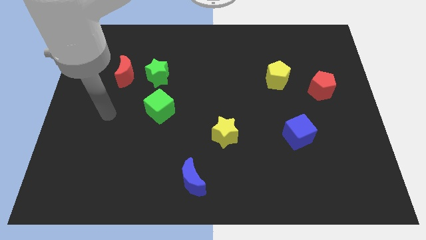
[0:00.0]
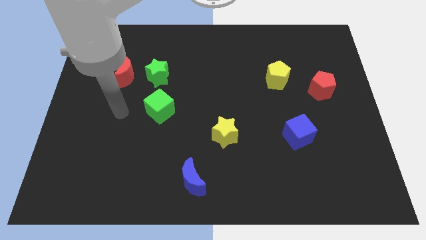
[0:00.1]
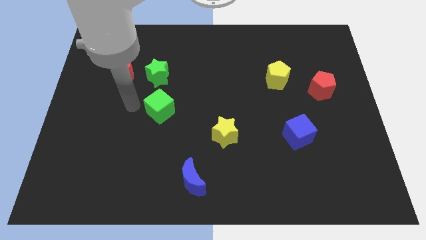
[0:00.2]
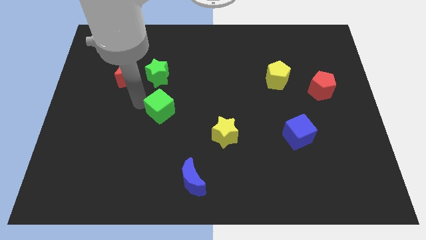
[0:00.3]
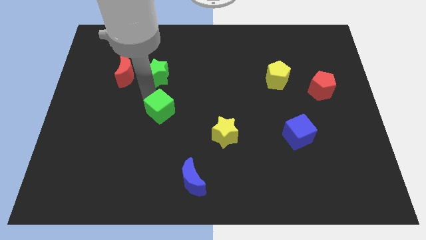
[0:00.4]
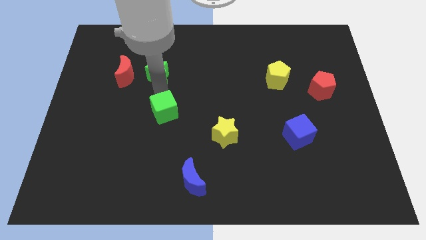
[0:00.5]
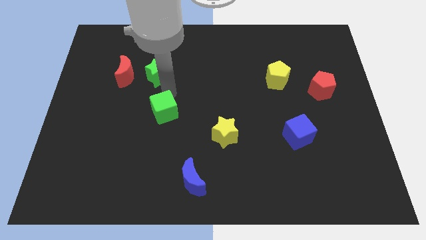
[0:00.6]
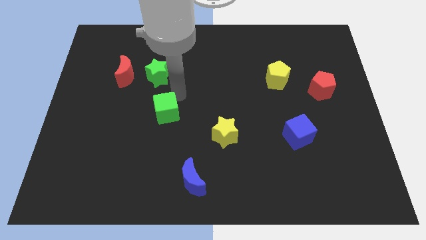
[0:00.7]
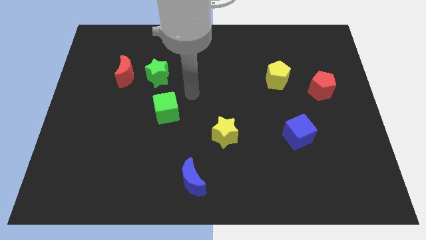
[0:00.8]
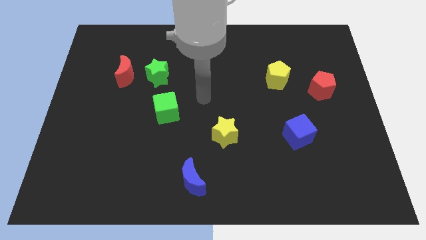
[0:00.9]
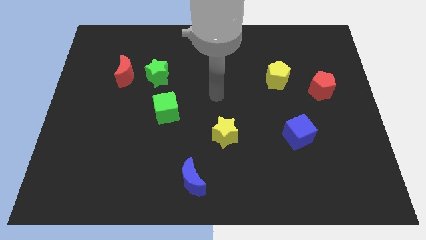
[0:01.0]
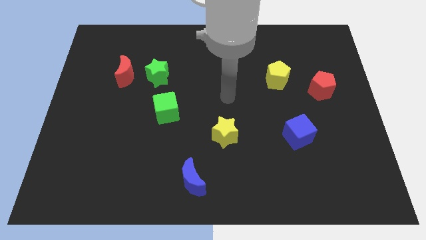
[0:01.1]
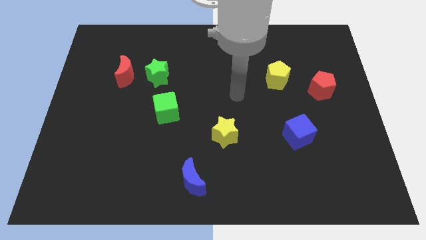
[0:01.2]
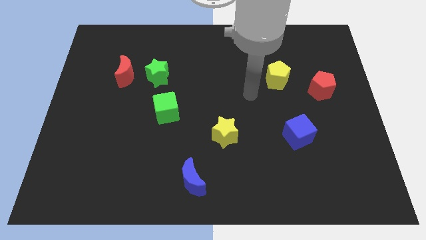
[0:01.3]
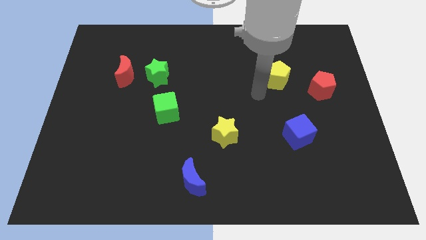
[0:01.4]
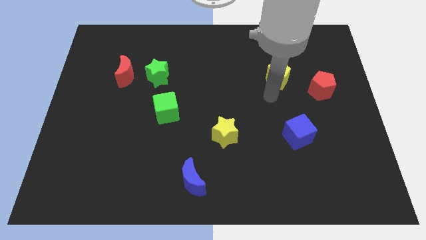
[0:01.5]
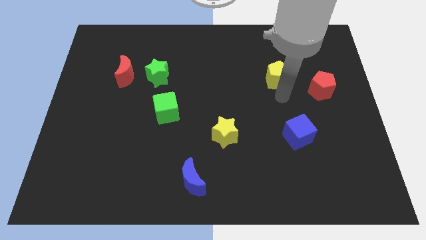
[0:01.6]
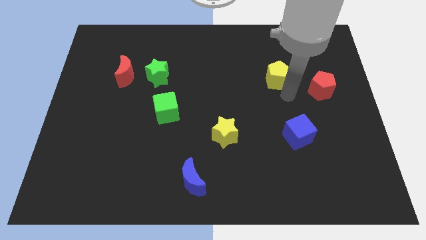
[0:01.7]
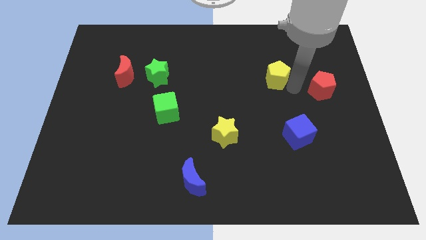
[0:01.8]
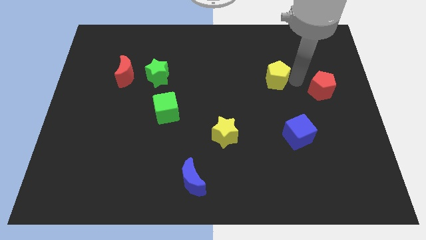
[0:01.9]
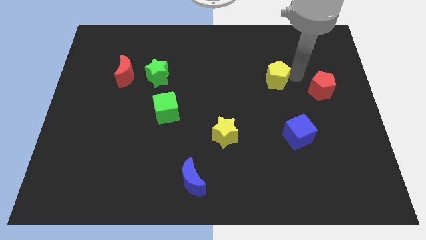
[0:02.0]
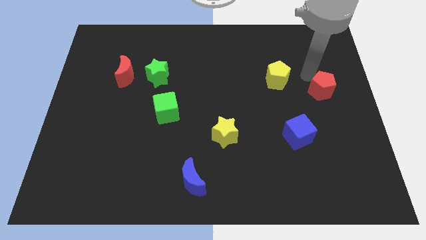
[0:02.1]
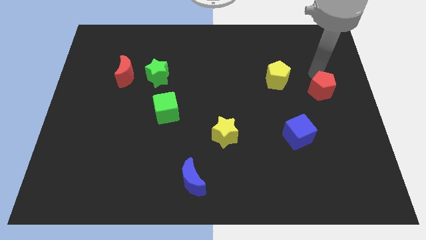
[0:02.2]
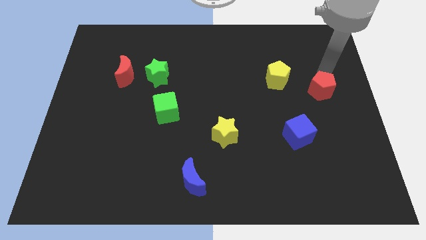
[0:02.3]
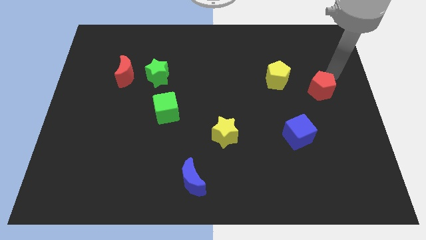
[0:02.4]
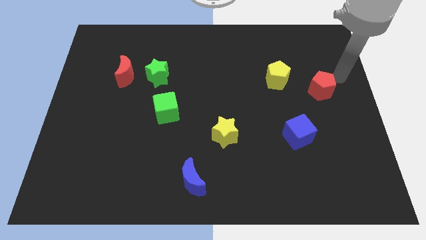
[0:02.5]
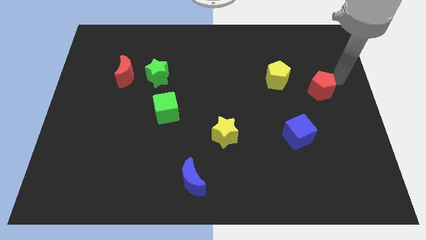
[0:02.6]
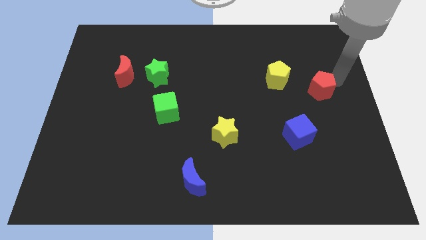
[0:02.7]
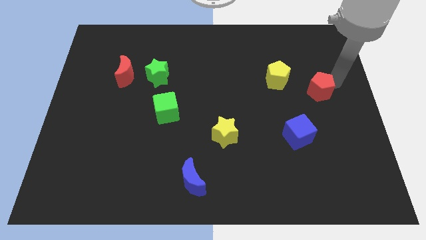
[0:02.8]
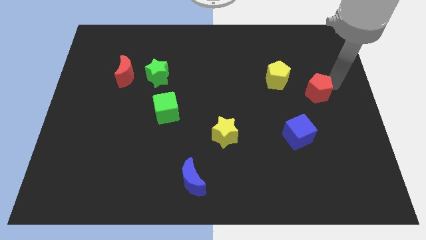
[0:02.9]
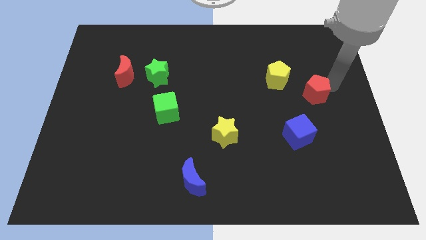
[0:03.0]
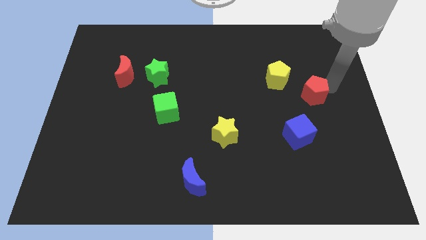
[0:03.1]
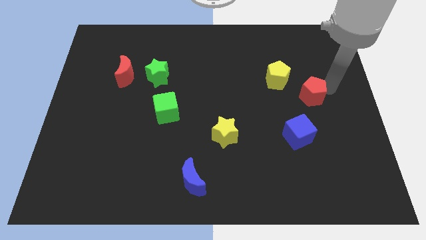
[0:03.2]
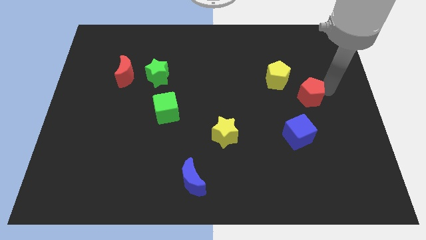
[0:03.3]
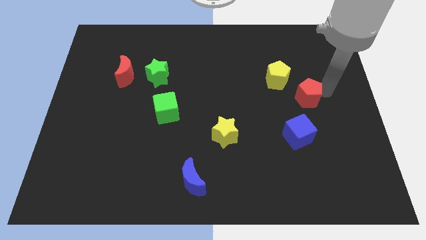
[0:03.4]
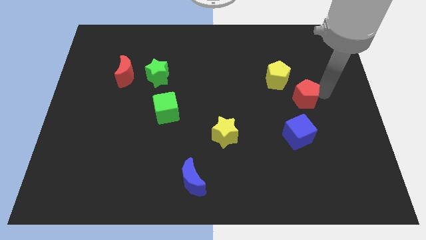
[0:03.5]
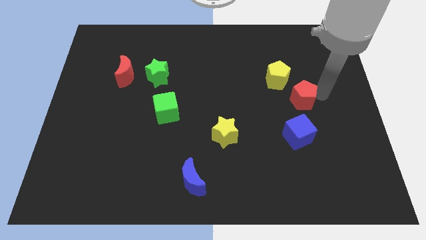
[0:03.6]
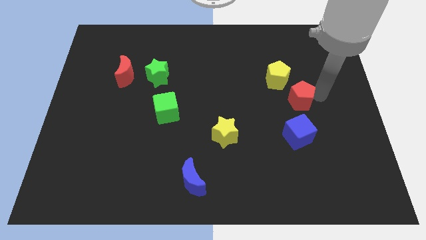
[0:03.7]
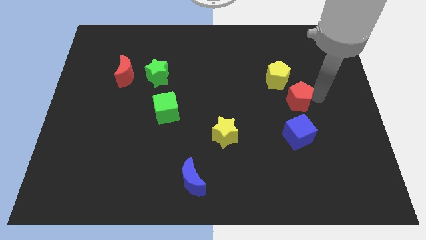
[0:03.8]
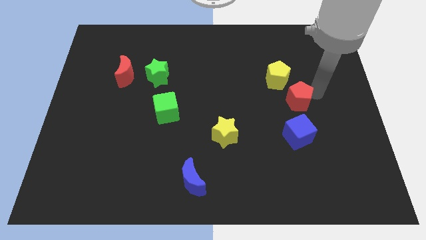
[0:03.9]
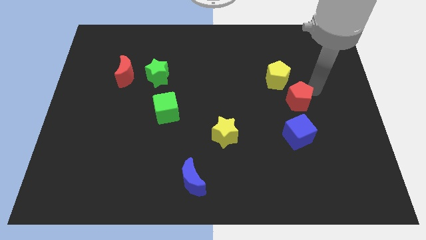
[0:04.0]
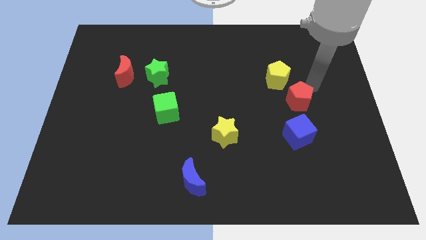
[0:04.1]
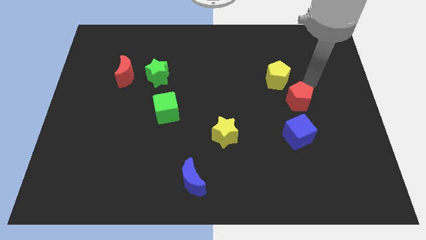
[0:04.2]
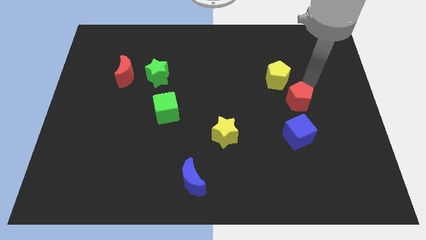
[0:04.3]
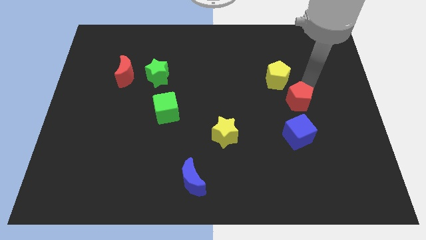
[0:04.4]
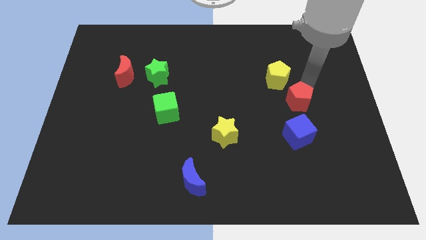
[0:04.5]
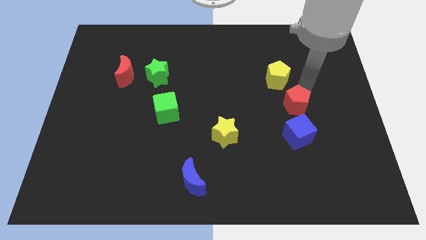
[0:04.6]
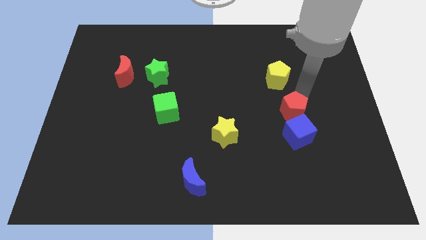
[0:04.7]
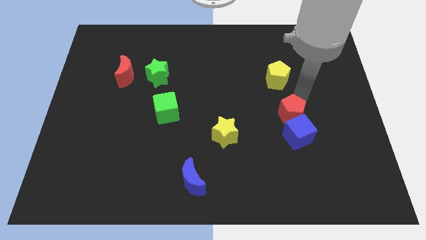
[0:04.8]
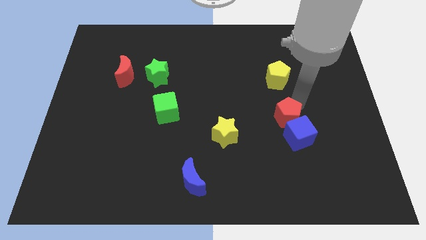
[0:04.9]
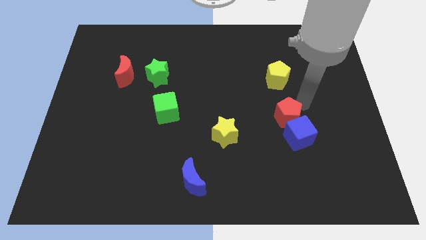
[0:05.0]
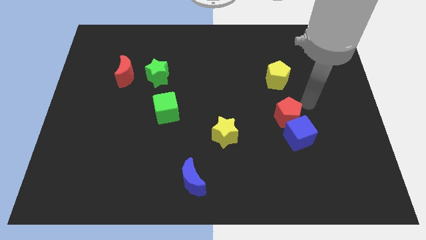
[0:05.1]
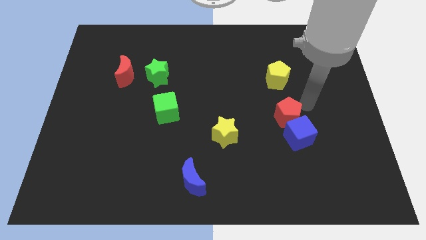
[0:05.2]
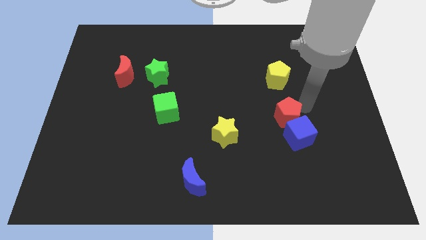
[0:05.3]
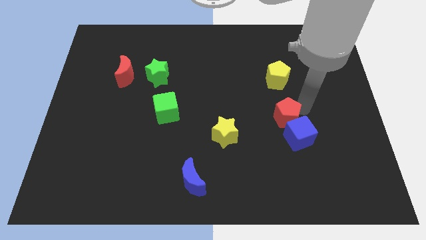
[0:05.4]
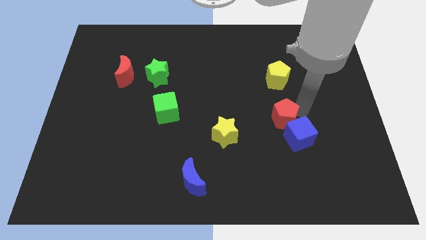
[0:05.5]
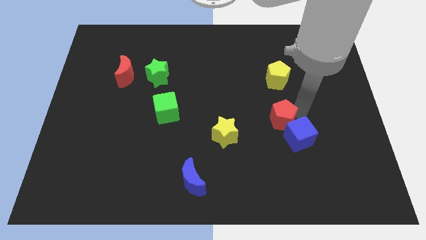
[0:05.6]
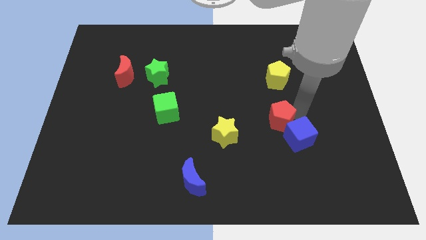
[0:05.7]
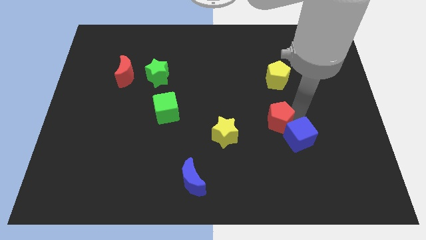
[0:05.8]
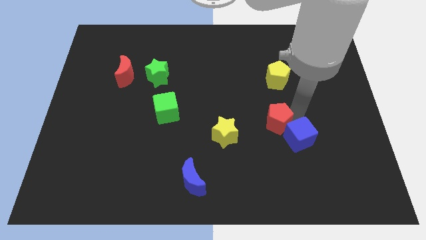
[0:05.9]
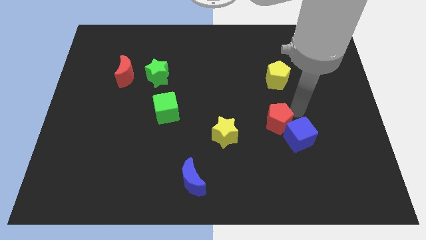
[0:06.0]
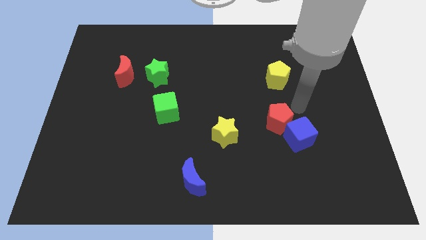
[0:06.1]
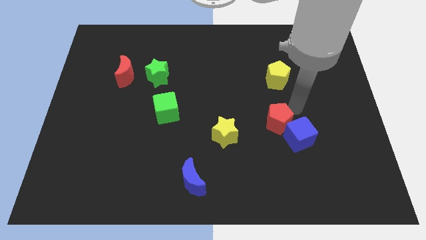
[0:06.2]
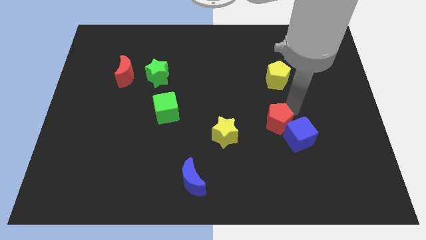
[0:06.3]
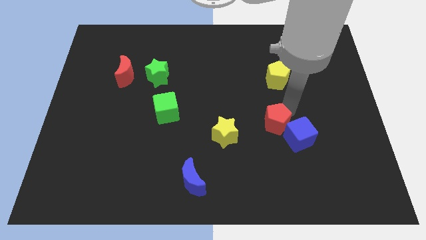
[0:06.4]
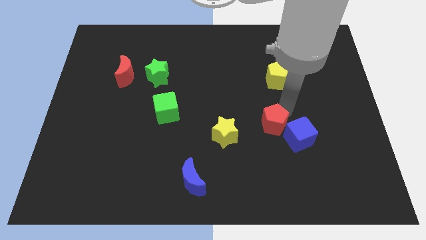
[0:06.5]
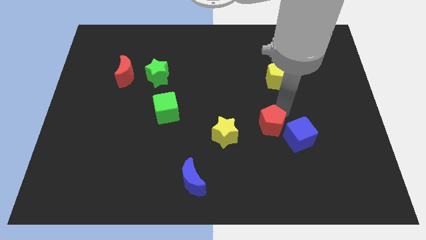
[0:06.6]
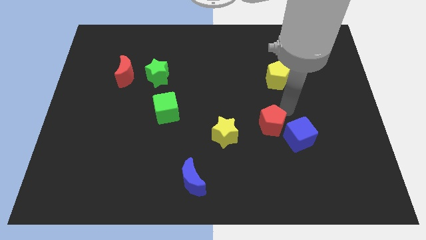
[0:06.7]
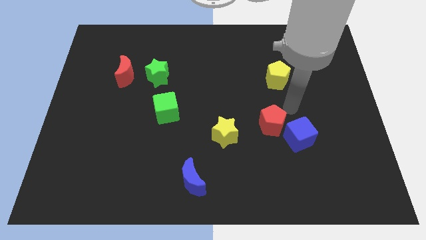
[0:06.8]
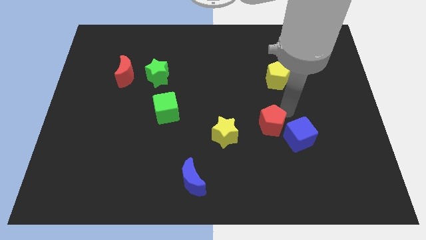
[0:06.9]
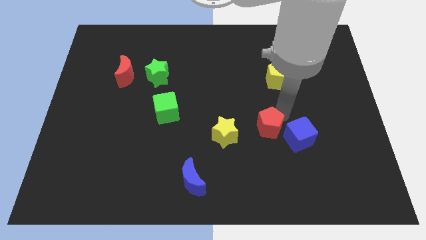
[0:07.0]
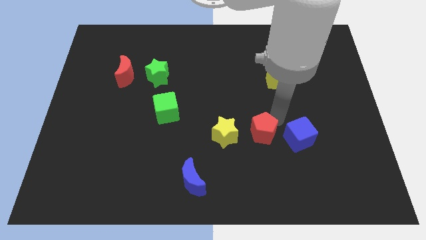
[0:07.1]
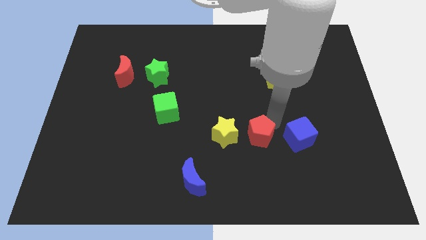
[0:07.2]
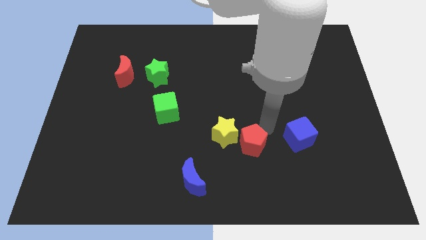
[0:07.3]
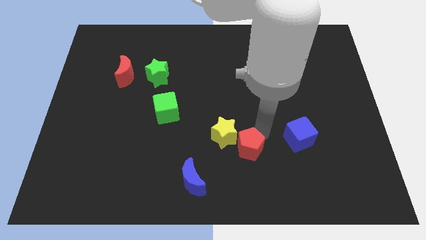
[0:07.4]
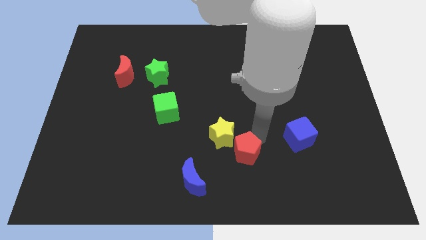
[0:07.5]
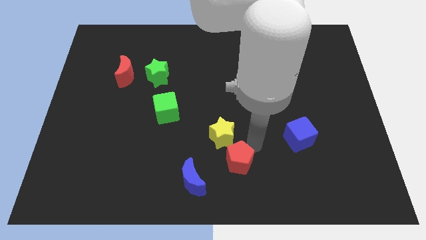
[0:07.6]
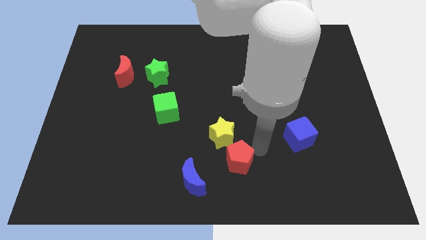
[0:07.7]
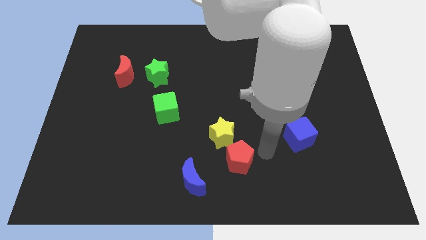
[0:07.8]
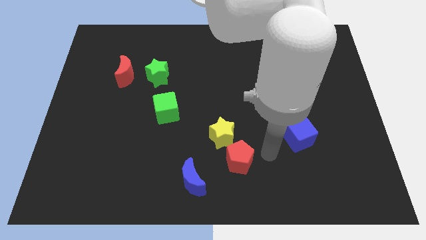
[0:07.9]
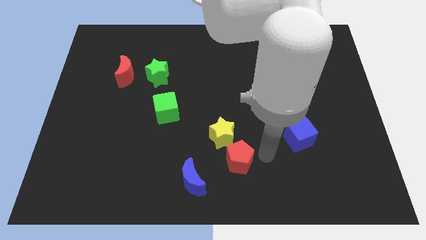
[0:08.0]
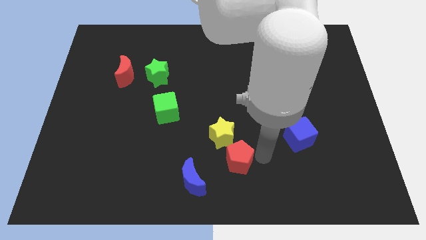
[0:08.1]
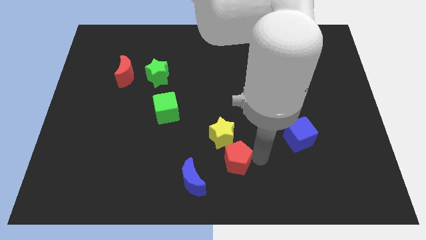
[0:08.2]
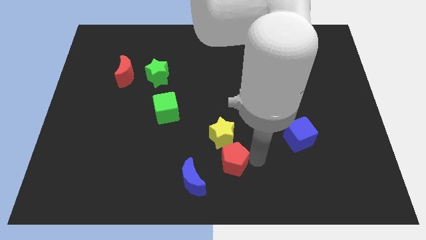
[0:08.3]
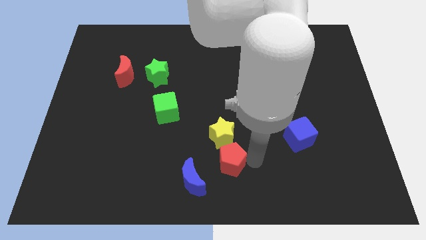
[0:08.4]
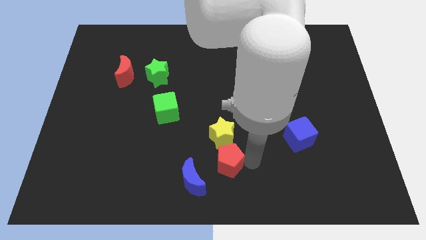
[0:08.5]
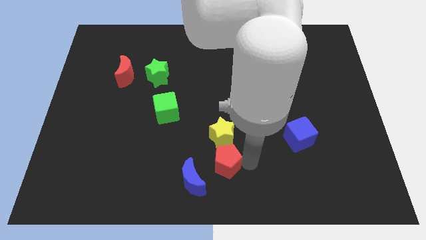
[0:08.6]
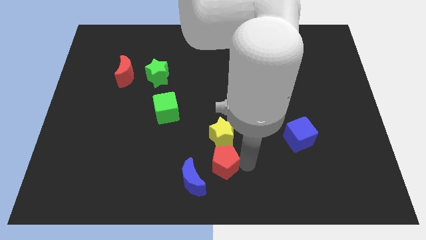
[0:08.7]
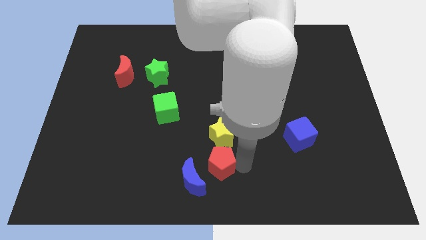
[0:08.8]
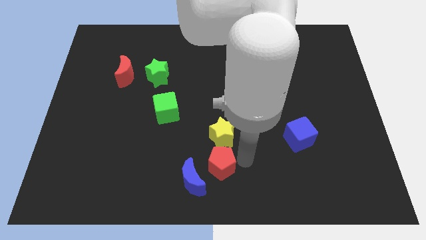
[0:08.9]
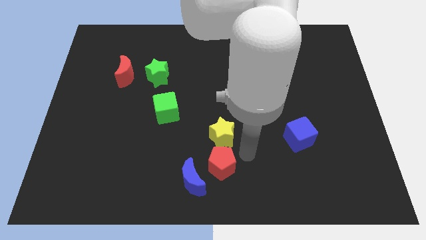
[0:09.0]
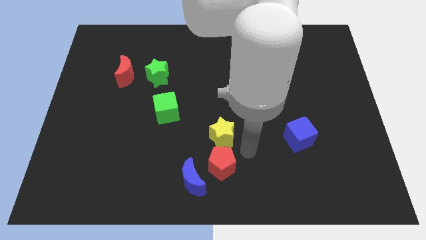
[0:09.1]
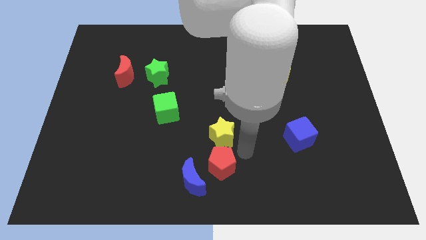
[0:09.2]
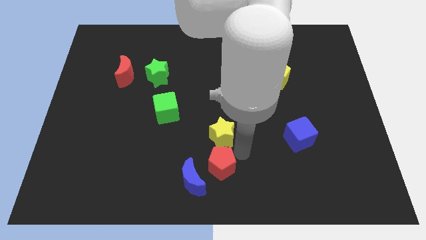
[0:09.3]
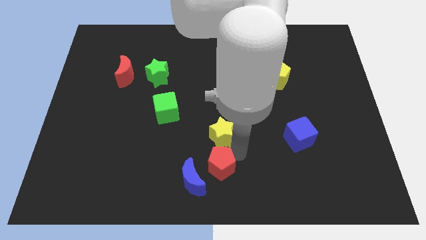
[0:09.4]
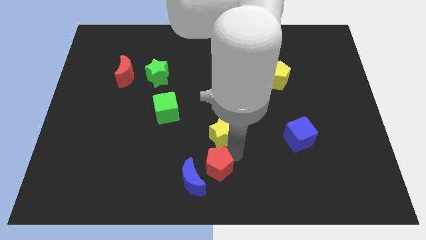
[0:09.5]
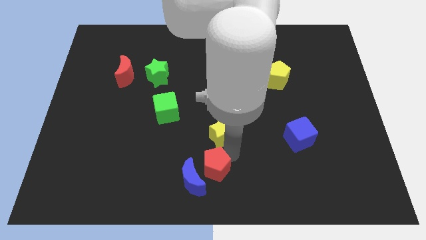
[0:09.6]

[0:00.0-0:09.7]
move the red pentagon next to the blue moon
